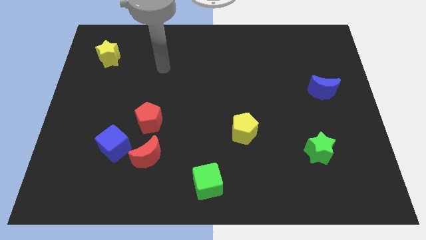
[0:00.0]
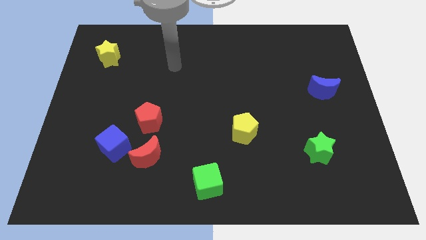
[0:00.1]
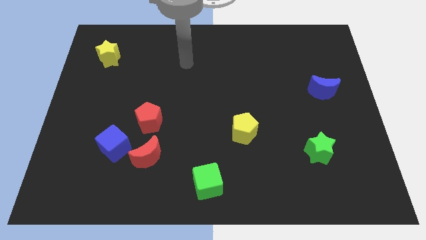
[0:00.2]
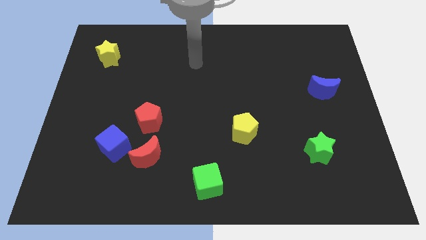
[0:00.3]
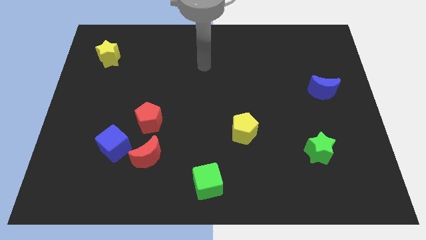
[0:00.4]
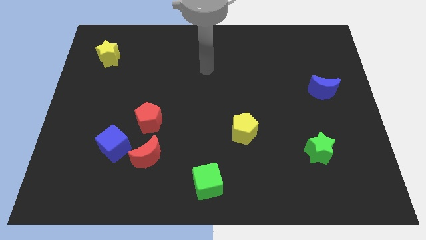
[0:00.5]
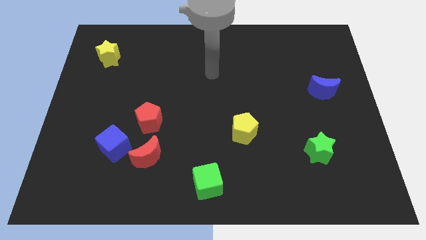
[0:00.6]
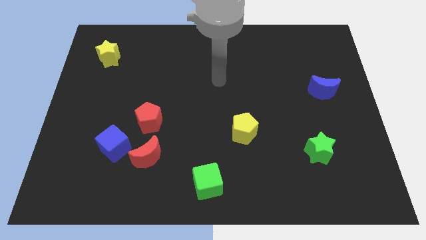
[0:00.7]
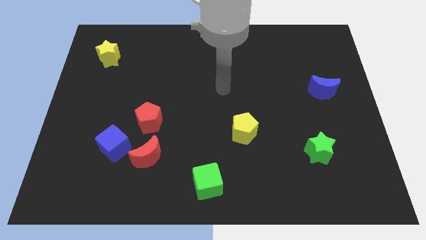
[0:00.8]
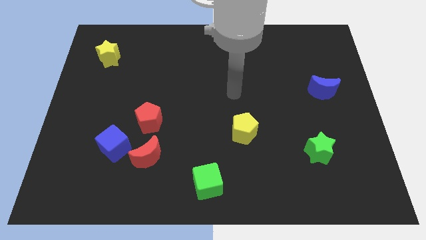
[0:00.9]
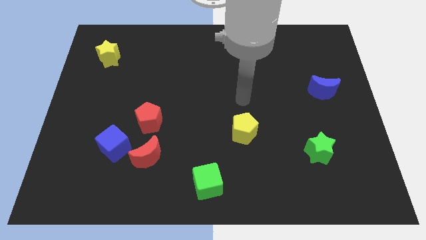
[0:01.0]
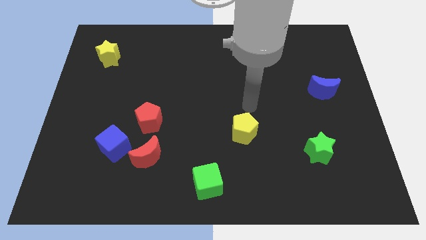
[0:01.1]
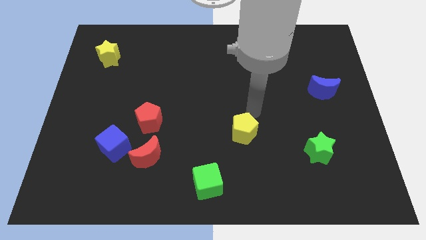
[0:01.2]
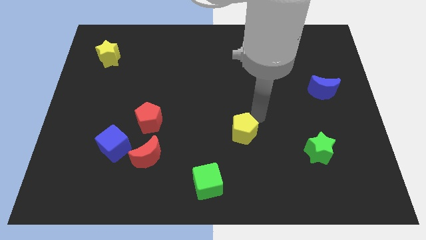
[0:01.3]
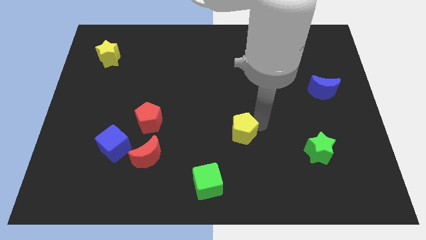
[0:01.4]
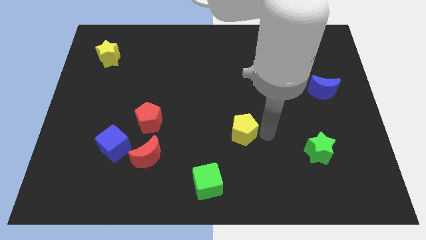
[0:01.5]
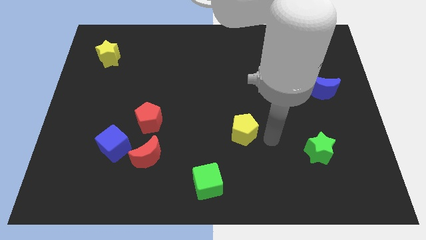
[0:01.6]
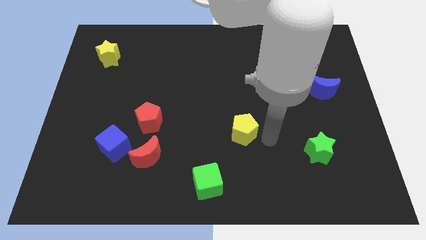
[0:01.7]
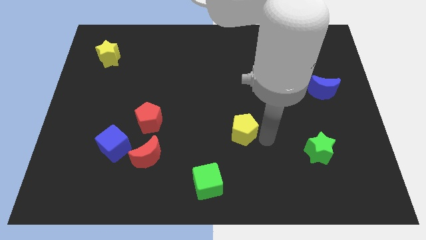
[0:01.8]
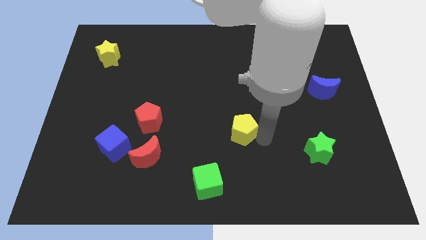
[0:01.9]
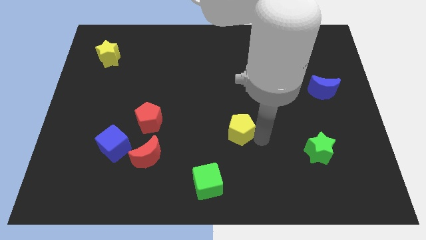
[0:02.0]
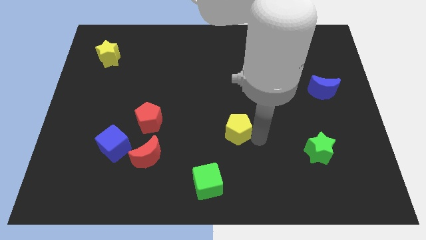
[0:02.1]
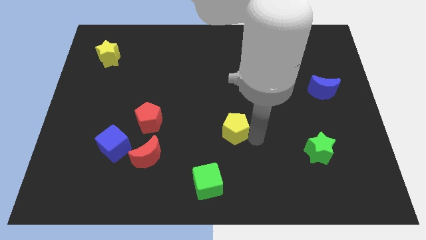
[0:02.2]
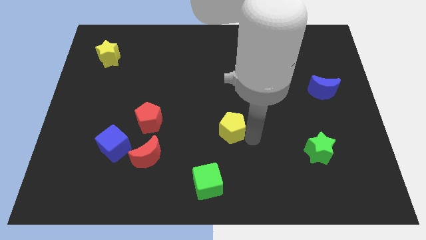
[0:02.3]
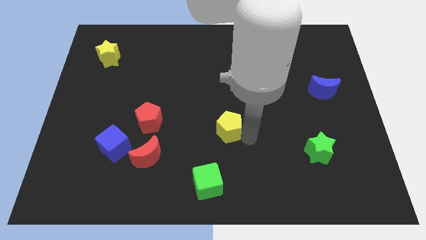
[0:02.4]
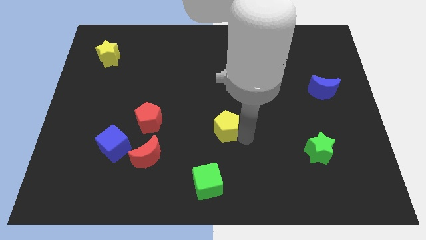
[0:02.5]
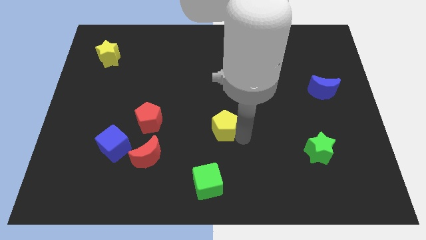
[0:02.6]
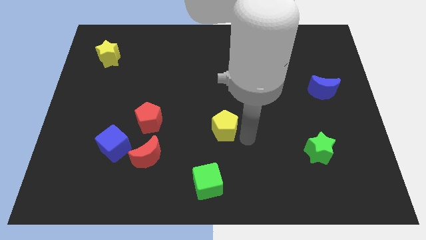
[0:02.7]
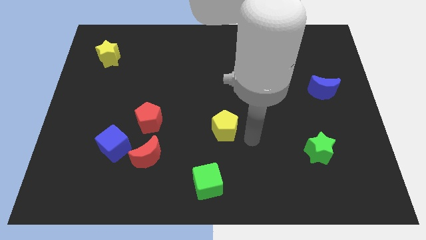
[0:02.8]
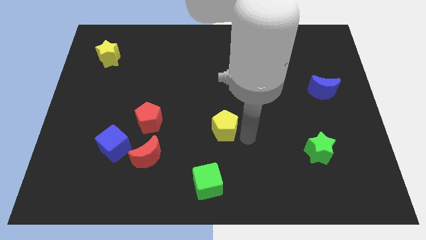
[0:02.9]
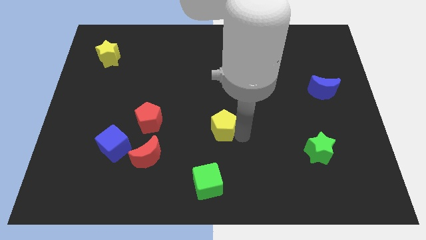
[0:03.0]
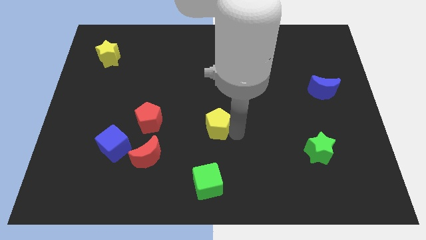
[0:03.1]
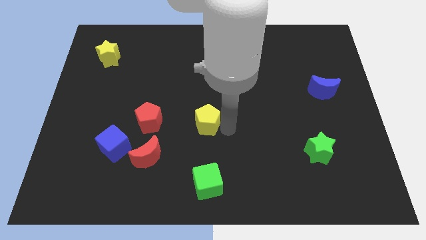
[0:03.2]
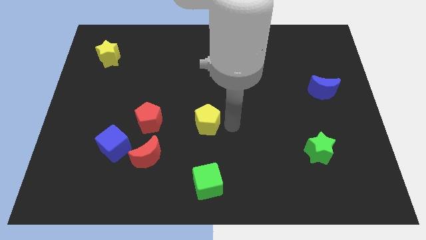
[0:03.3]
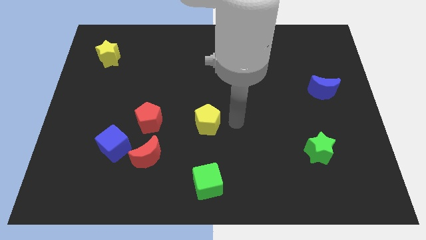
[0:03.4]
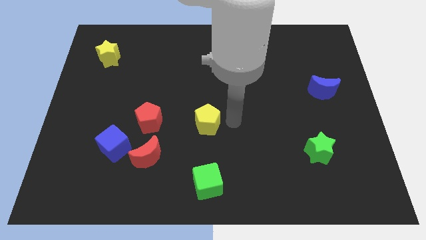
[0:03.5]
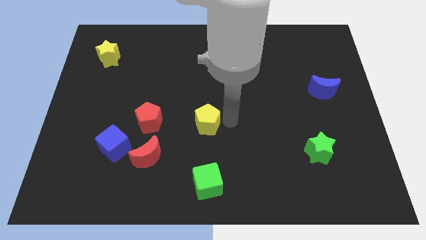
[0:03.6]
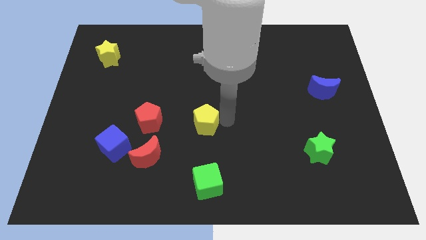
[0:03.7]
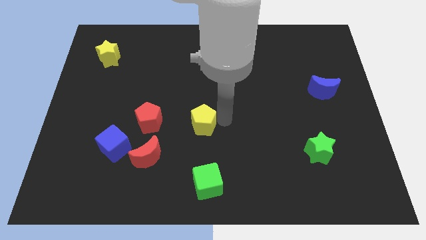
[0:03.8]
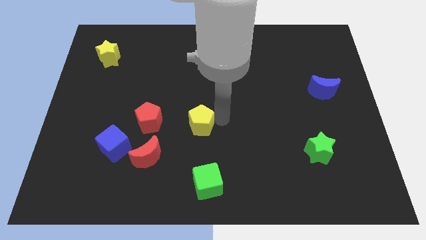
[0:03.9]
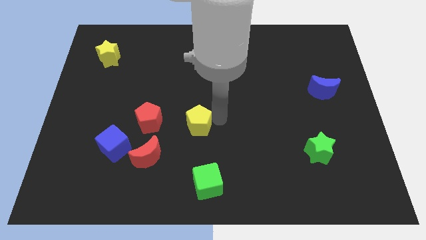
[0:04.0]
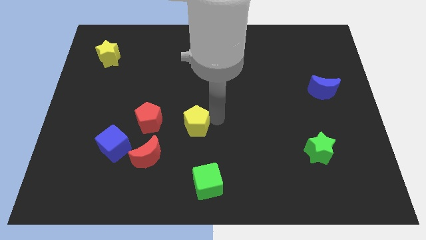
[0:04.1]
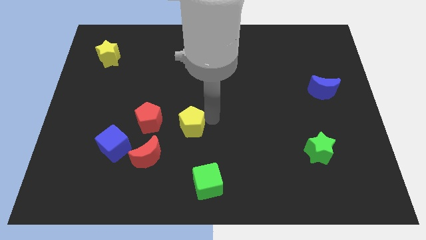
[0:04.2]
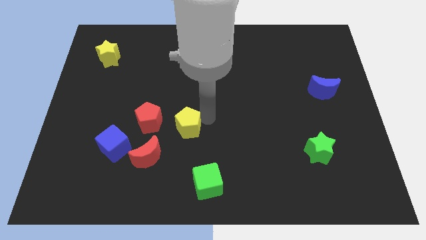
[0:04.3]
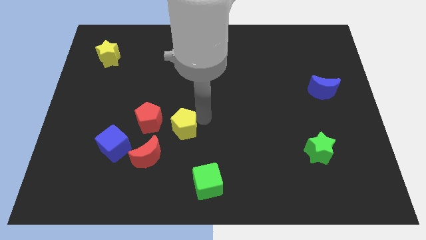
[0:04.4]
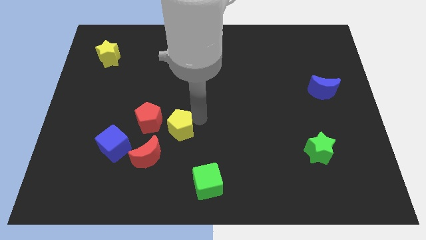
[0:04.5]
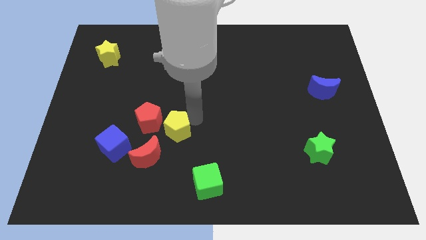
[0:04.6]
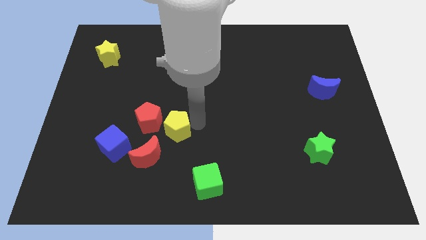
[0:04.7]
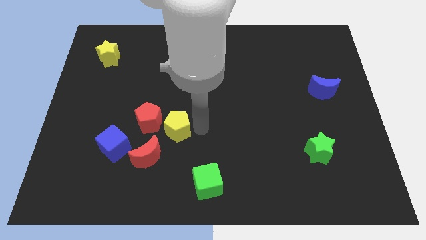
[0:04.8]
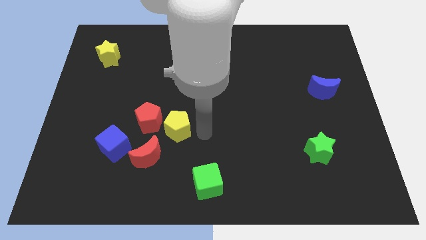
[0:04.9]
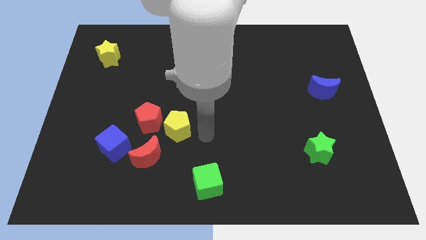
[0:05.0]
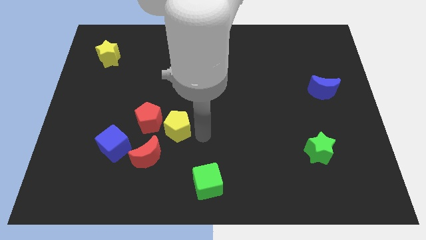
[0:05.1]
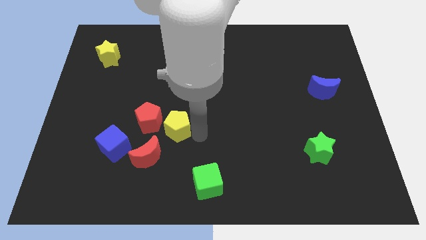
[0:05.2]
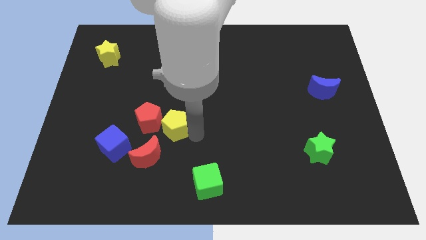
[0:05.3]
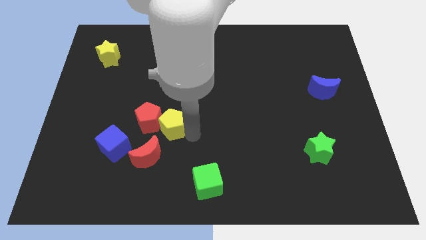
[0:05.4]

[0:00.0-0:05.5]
move the yellow pentagon to the red pentagon
